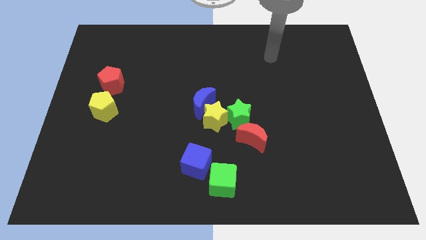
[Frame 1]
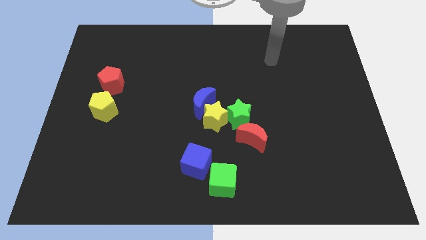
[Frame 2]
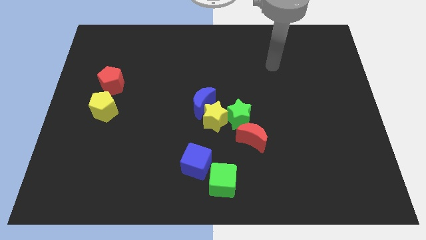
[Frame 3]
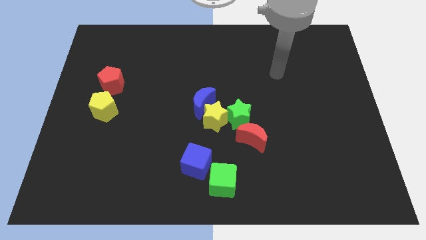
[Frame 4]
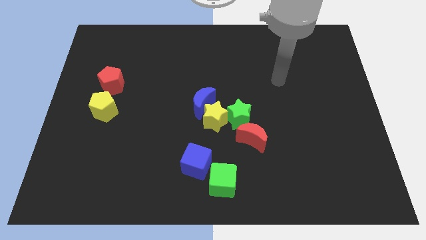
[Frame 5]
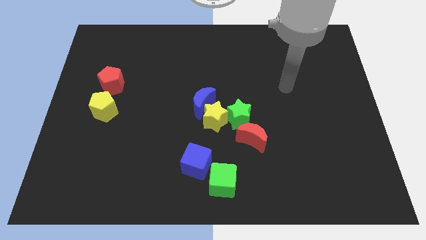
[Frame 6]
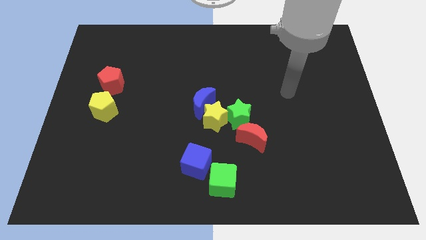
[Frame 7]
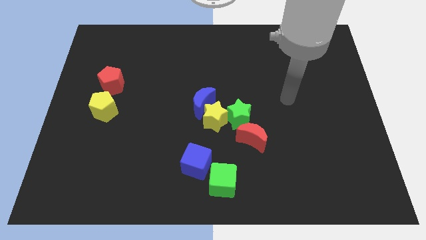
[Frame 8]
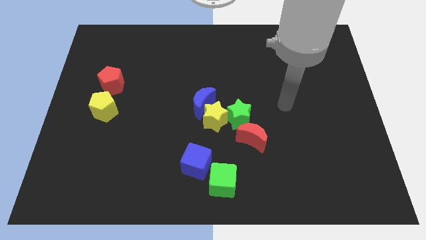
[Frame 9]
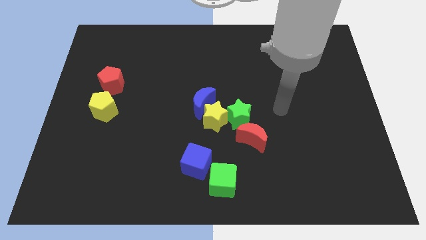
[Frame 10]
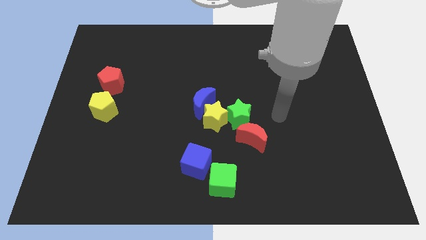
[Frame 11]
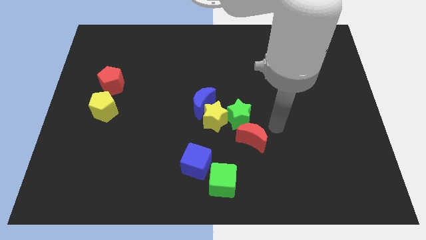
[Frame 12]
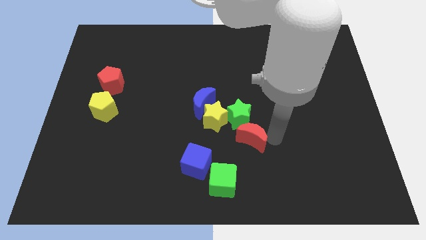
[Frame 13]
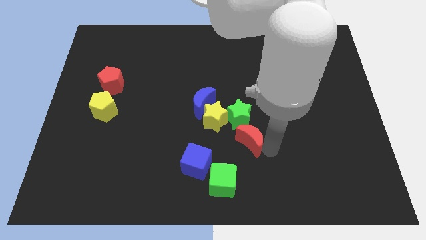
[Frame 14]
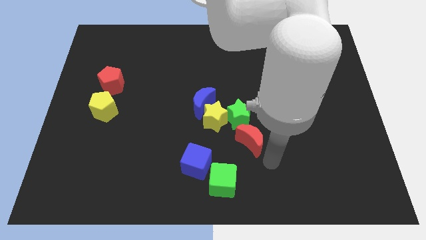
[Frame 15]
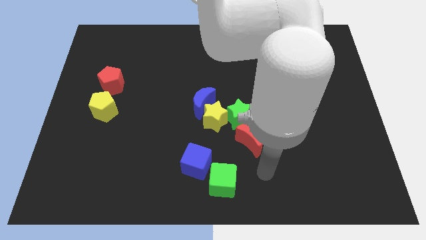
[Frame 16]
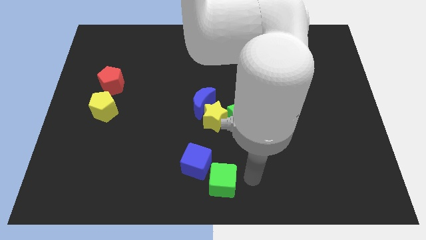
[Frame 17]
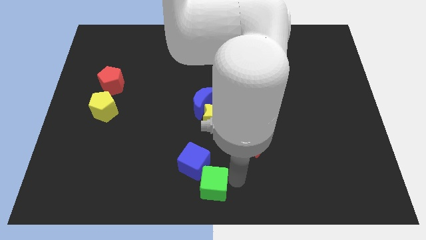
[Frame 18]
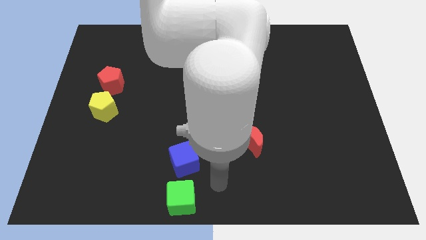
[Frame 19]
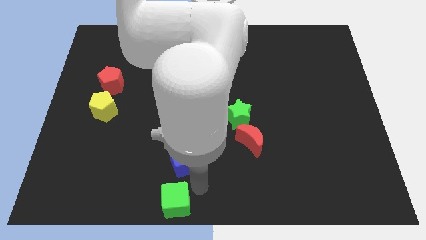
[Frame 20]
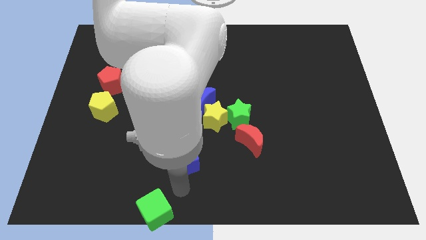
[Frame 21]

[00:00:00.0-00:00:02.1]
move the blue cube away from the green cube

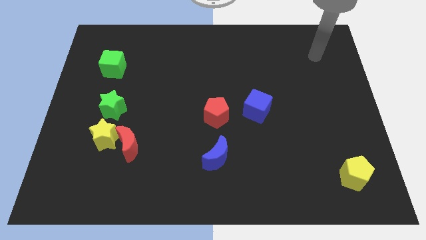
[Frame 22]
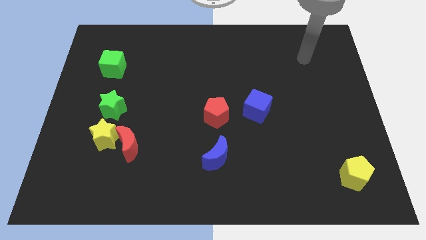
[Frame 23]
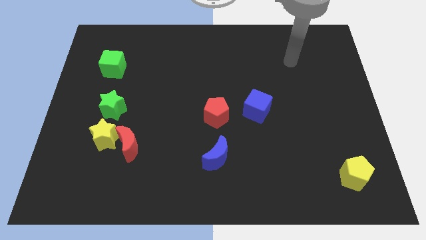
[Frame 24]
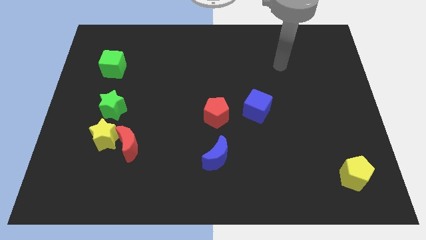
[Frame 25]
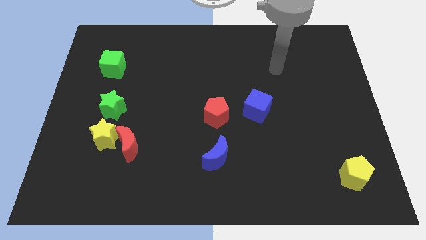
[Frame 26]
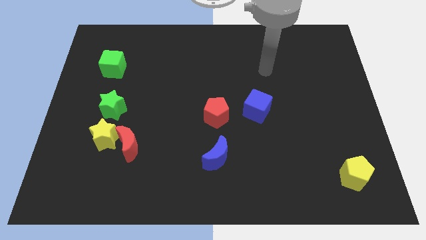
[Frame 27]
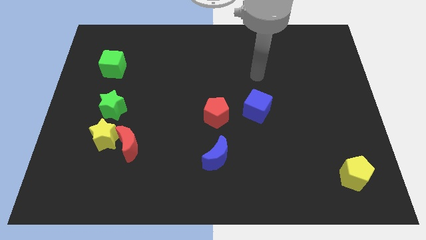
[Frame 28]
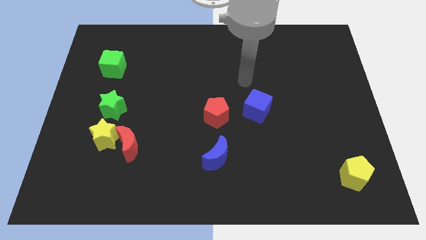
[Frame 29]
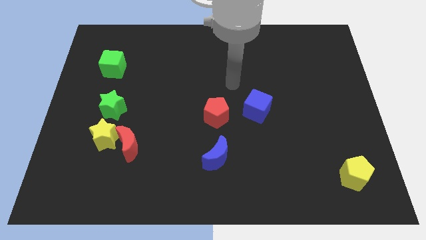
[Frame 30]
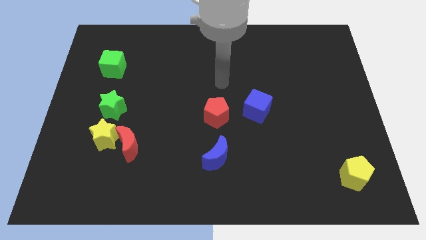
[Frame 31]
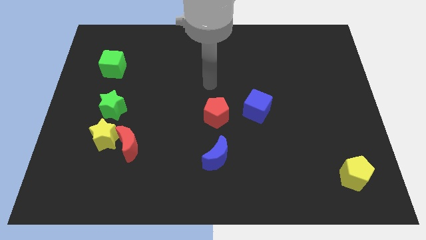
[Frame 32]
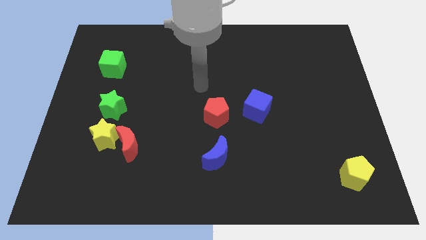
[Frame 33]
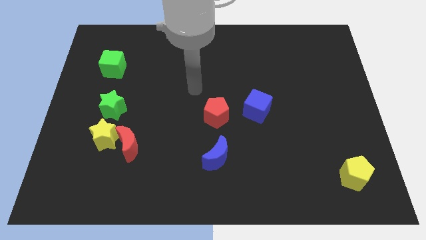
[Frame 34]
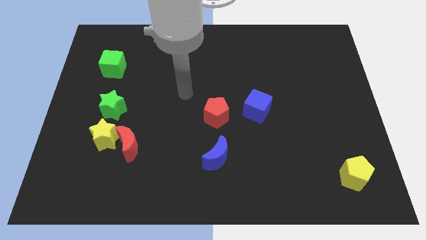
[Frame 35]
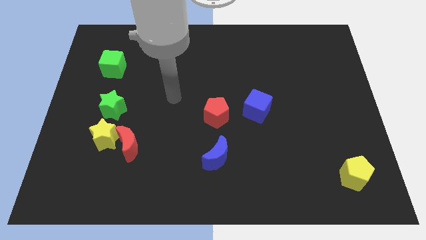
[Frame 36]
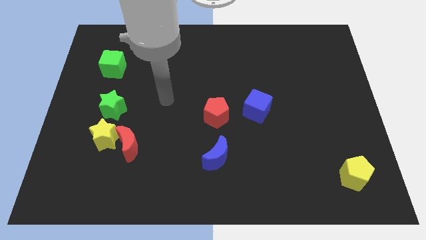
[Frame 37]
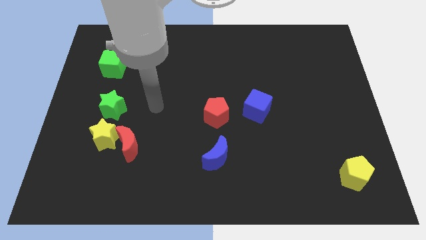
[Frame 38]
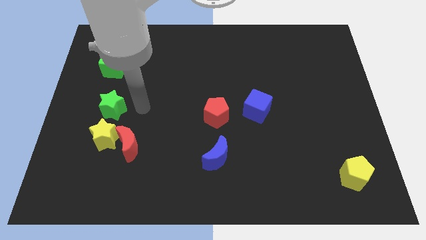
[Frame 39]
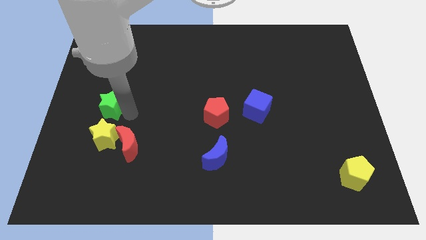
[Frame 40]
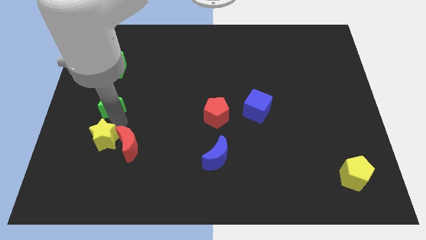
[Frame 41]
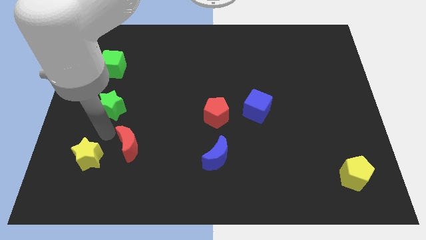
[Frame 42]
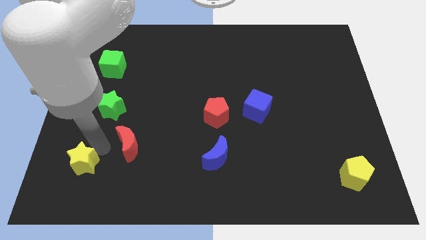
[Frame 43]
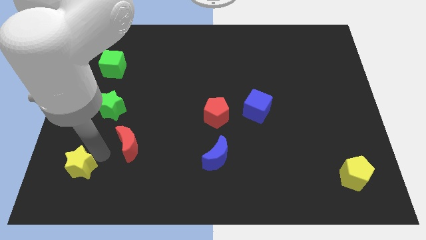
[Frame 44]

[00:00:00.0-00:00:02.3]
separate the red moon from the yellow star

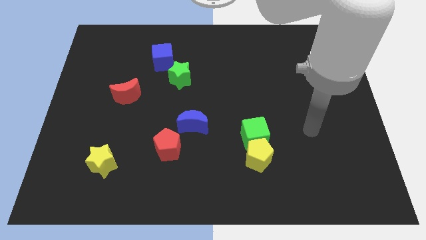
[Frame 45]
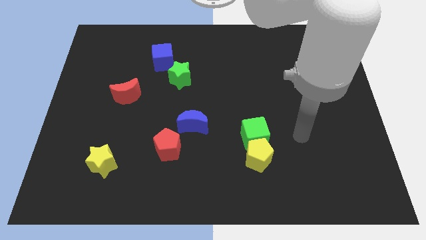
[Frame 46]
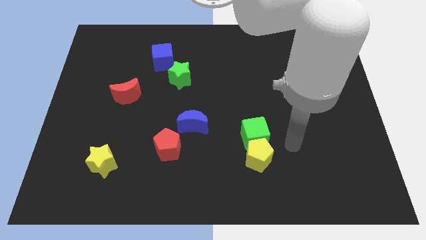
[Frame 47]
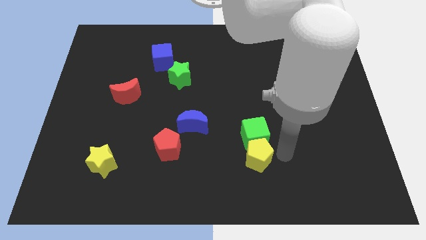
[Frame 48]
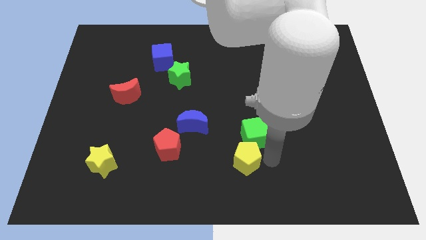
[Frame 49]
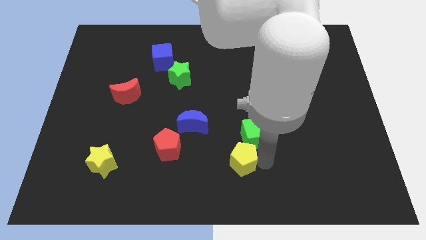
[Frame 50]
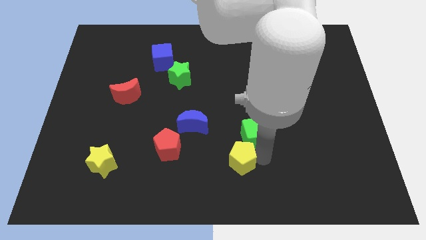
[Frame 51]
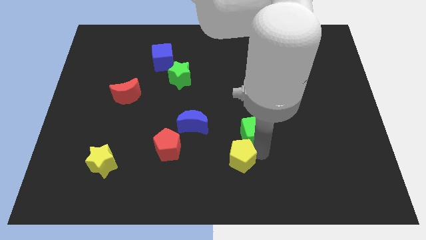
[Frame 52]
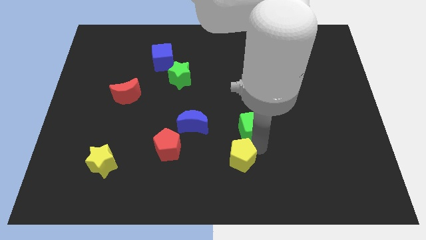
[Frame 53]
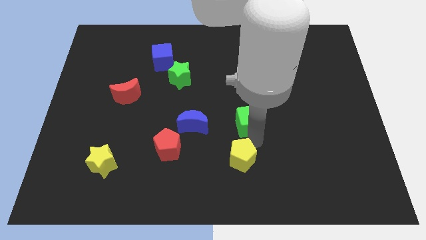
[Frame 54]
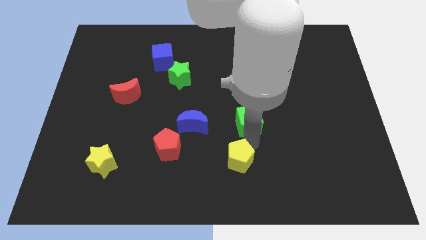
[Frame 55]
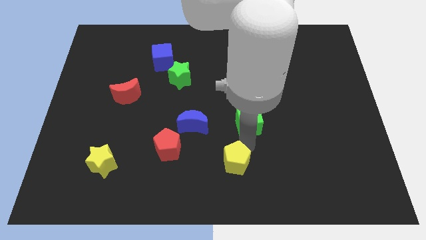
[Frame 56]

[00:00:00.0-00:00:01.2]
separate the green cube from the yellow pentagon

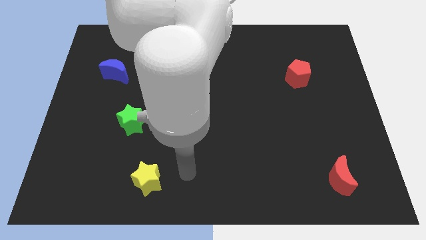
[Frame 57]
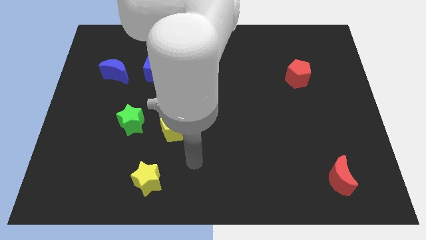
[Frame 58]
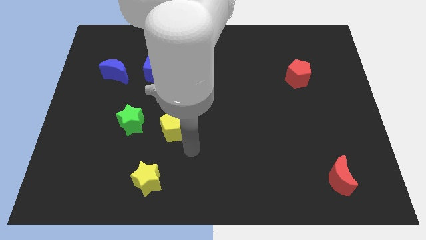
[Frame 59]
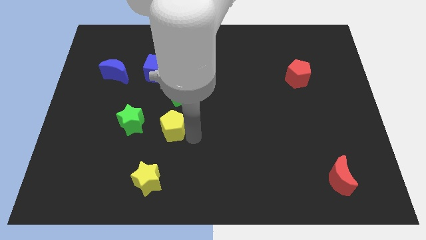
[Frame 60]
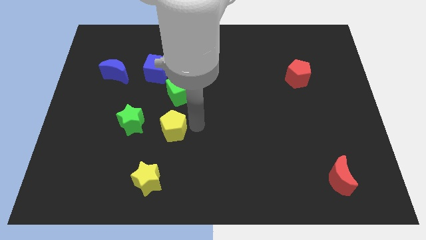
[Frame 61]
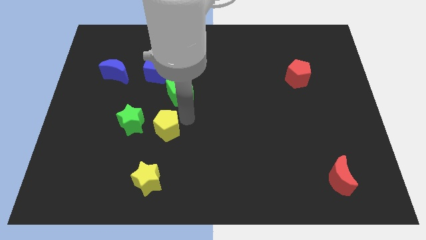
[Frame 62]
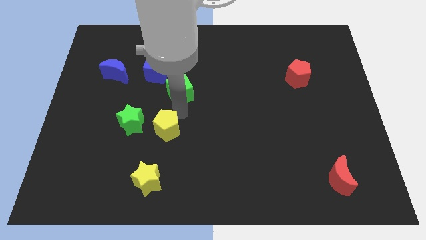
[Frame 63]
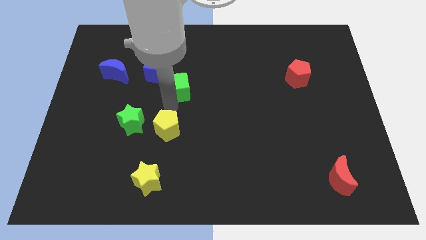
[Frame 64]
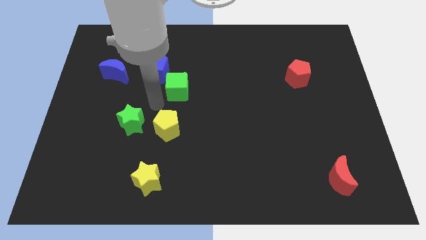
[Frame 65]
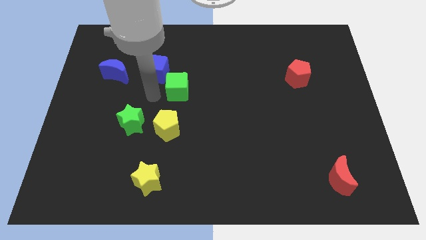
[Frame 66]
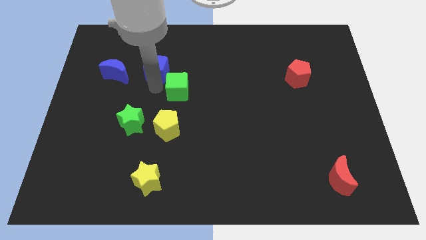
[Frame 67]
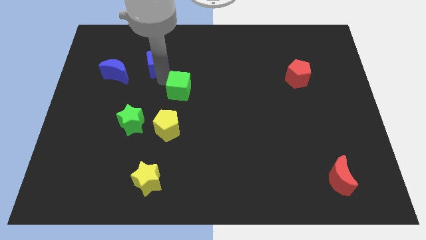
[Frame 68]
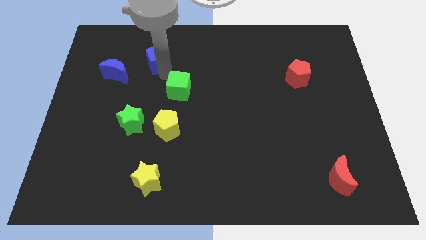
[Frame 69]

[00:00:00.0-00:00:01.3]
separate the green cube from the blue cube

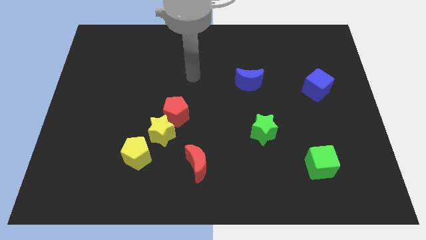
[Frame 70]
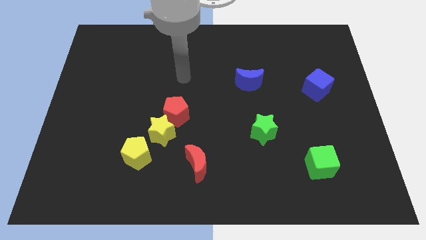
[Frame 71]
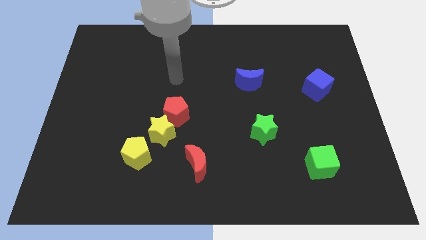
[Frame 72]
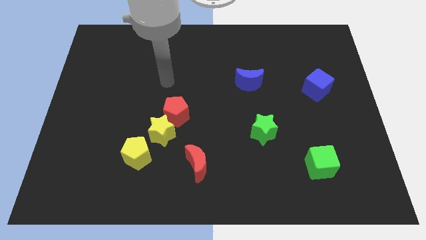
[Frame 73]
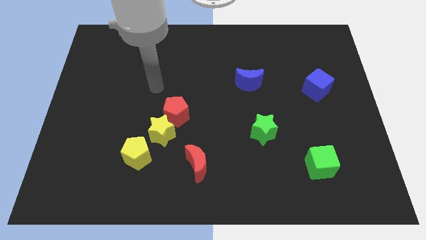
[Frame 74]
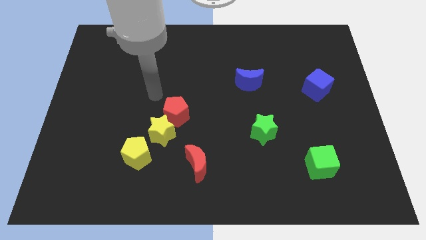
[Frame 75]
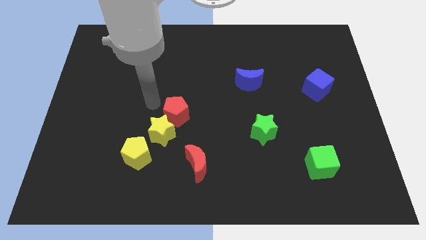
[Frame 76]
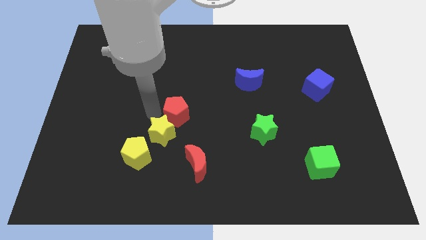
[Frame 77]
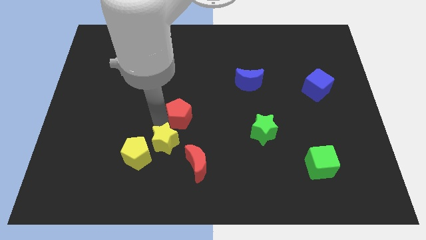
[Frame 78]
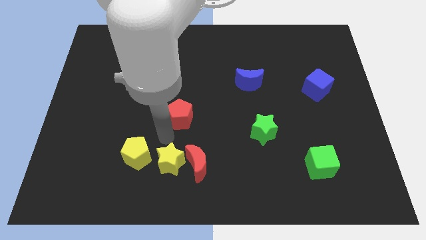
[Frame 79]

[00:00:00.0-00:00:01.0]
pull the red pentagon apart from the yellow star

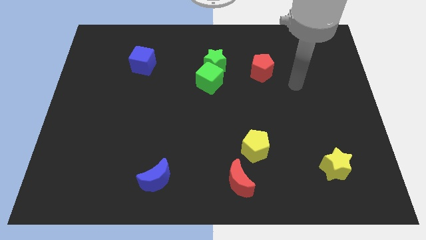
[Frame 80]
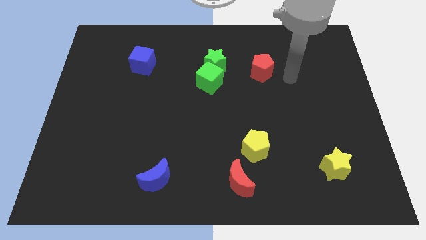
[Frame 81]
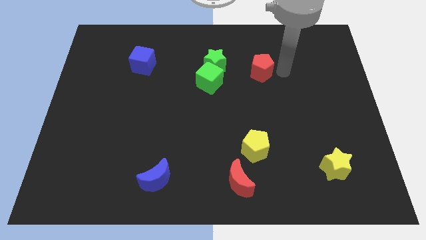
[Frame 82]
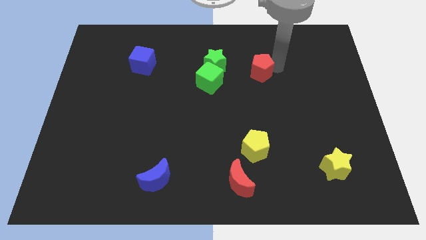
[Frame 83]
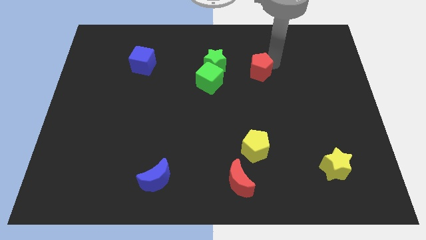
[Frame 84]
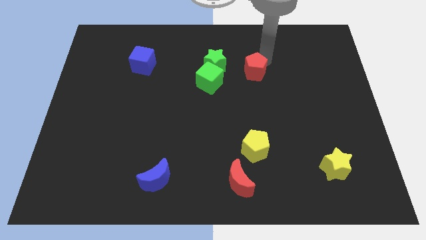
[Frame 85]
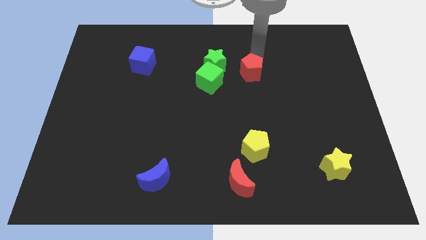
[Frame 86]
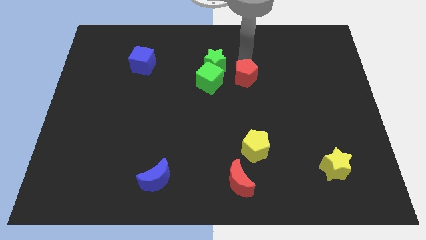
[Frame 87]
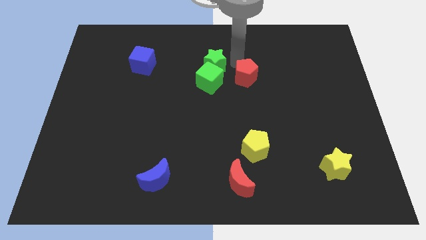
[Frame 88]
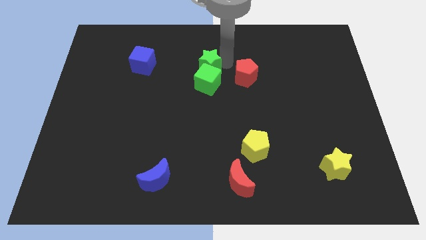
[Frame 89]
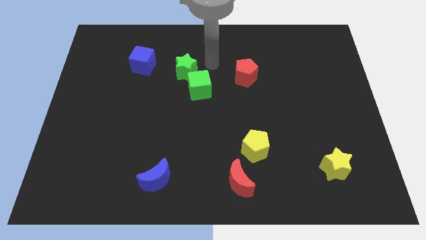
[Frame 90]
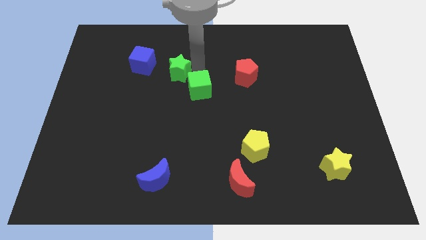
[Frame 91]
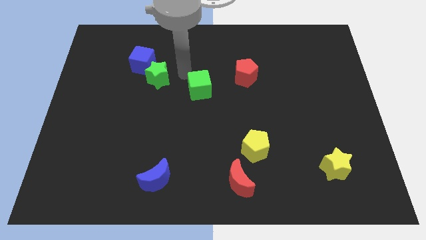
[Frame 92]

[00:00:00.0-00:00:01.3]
pull the green cube apart from the green star

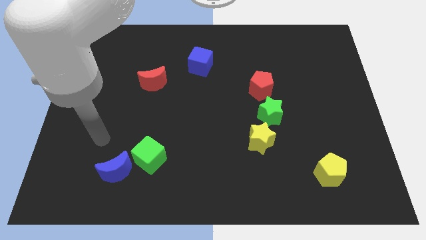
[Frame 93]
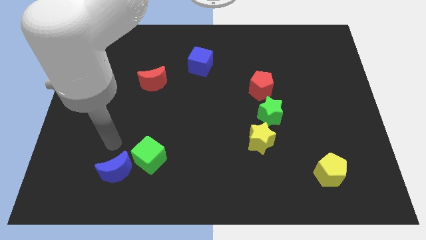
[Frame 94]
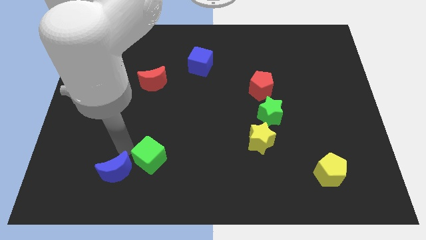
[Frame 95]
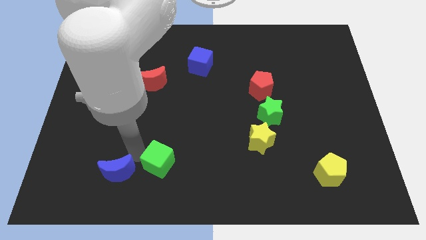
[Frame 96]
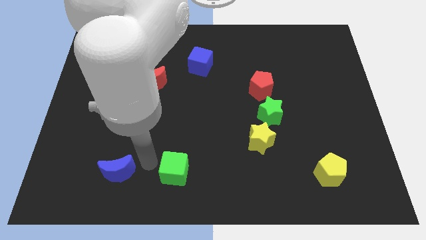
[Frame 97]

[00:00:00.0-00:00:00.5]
separate the blue moon from the green cube
